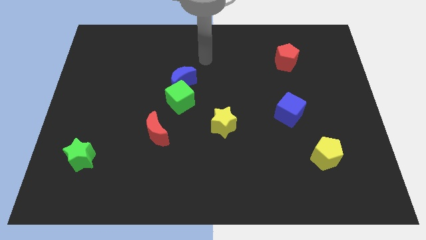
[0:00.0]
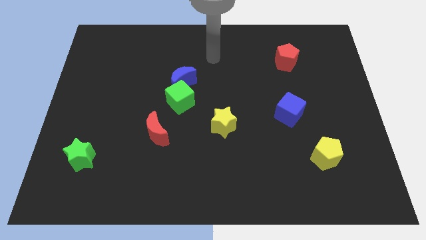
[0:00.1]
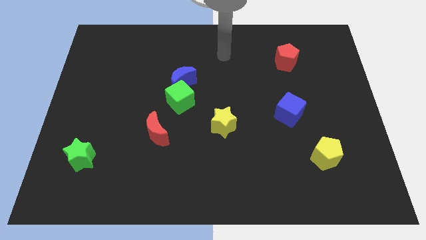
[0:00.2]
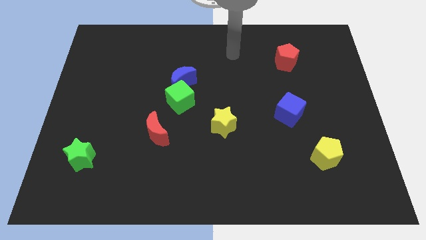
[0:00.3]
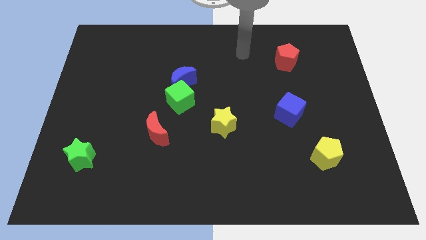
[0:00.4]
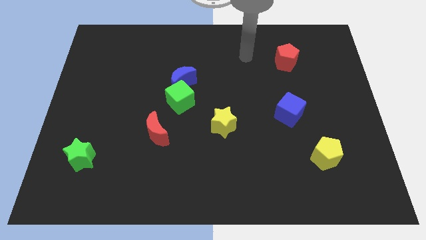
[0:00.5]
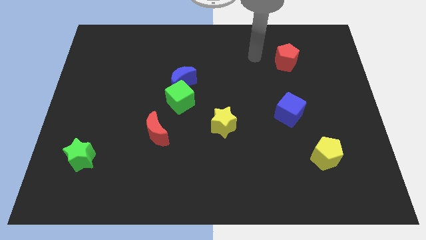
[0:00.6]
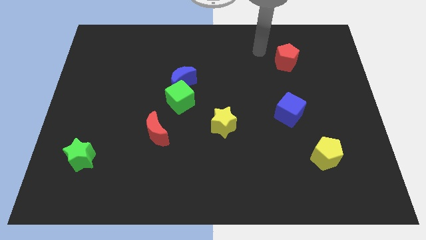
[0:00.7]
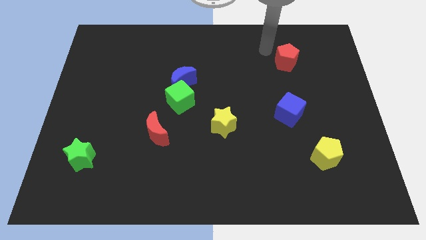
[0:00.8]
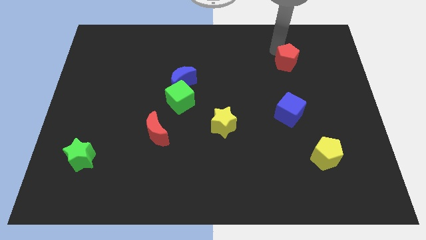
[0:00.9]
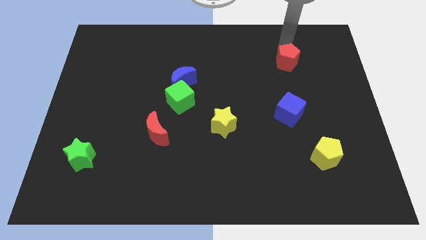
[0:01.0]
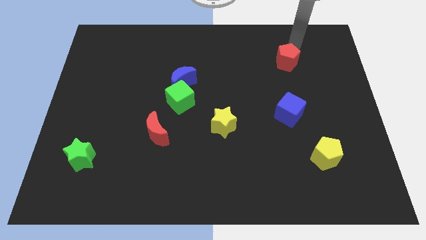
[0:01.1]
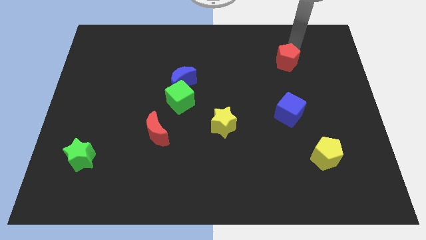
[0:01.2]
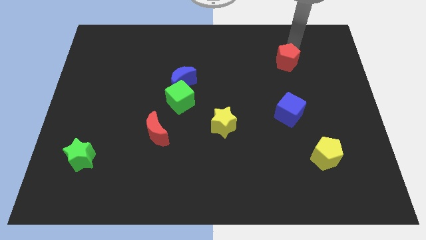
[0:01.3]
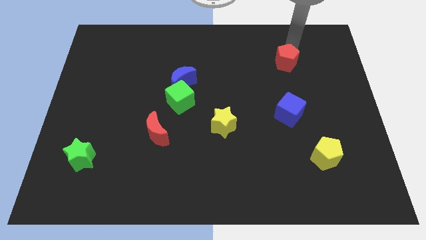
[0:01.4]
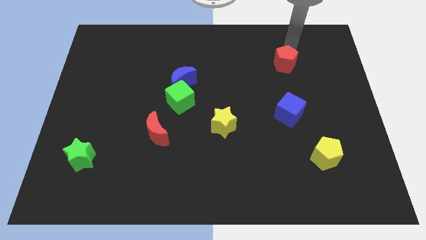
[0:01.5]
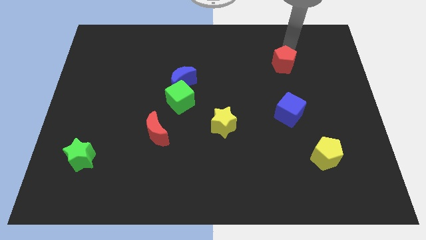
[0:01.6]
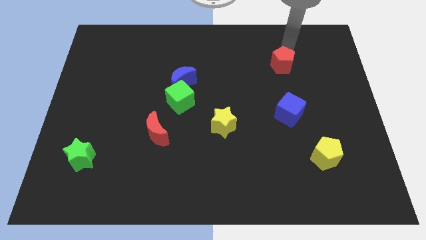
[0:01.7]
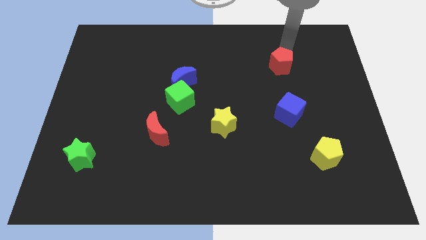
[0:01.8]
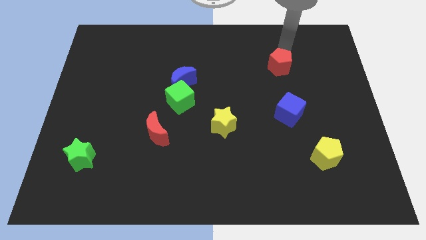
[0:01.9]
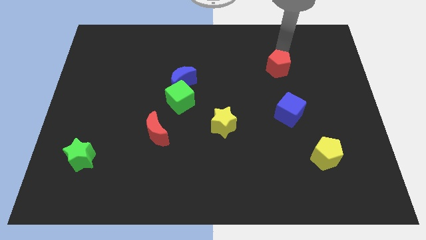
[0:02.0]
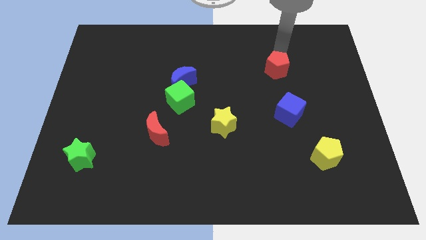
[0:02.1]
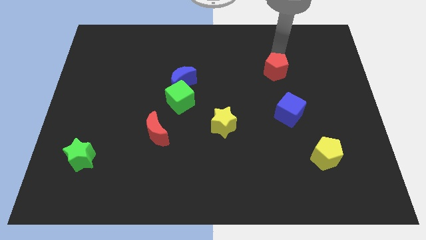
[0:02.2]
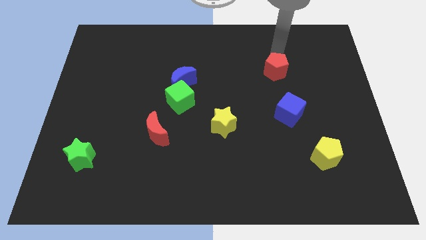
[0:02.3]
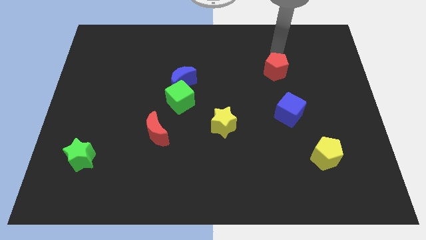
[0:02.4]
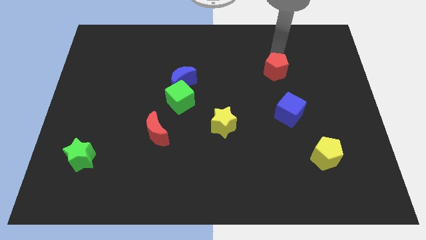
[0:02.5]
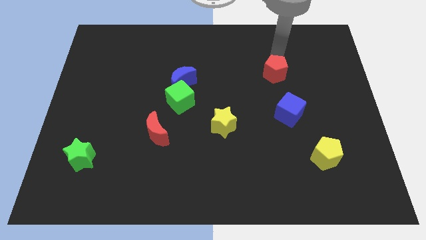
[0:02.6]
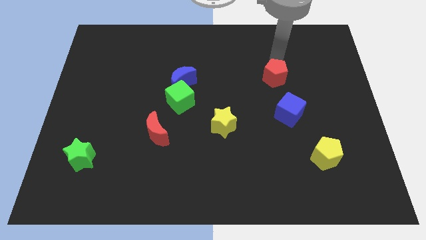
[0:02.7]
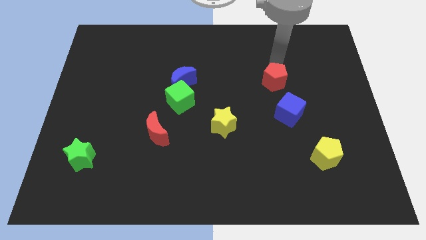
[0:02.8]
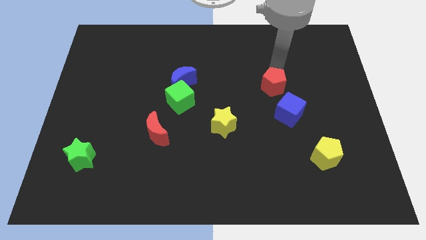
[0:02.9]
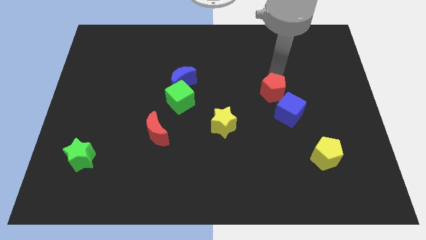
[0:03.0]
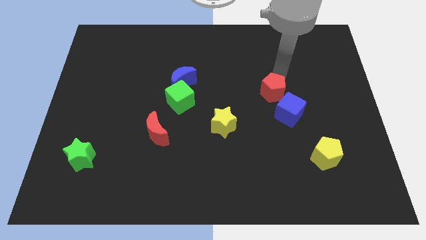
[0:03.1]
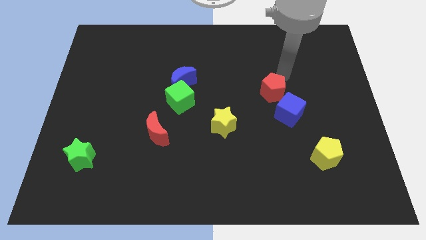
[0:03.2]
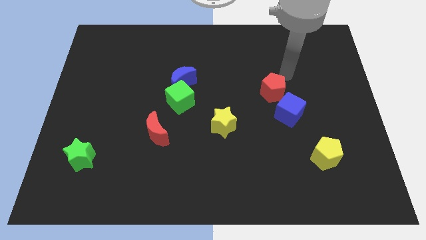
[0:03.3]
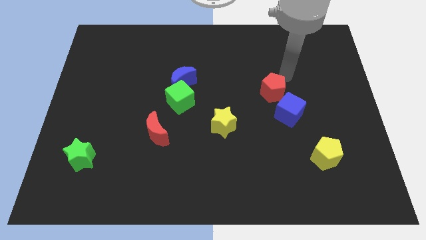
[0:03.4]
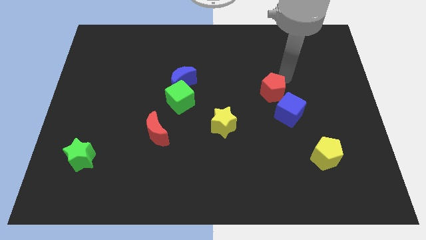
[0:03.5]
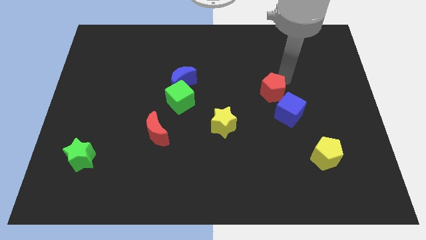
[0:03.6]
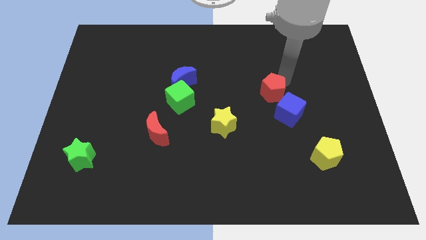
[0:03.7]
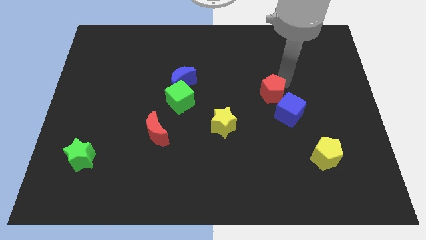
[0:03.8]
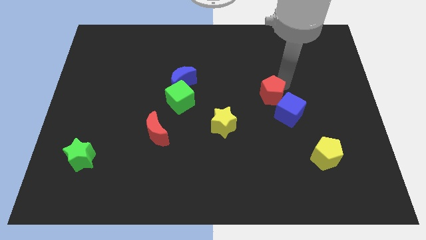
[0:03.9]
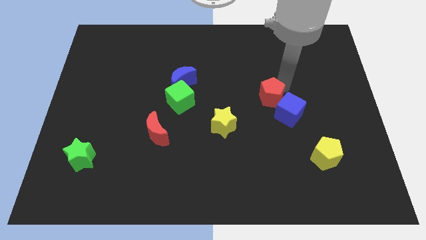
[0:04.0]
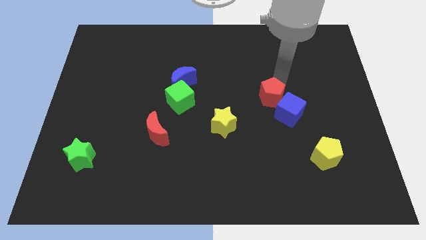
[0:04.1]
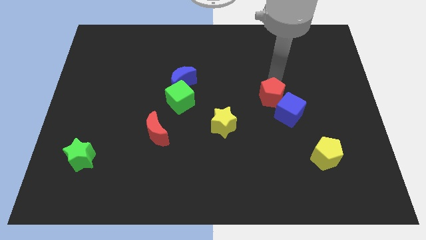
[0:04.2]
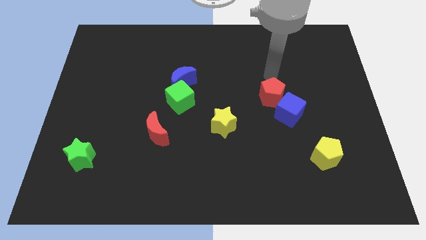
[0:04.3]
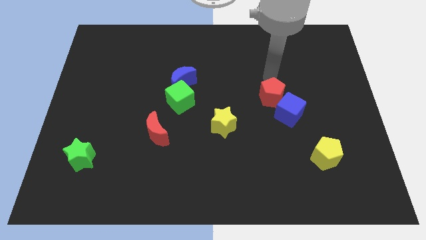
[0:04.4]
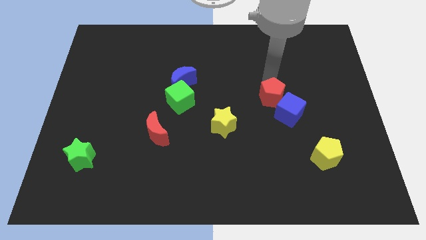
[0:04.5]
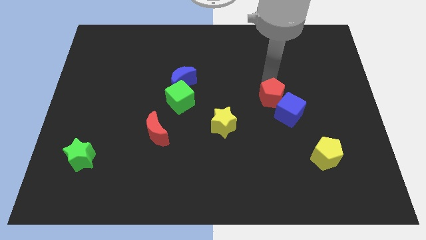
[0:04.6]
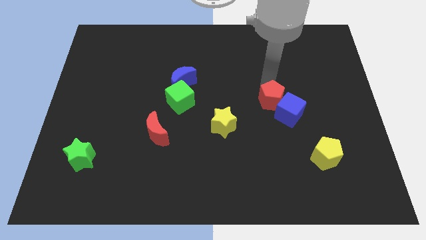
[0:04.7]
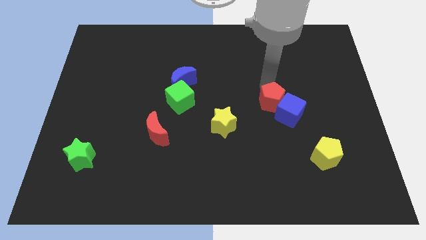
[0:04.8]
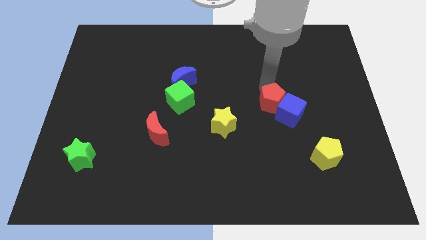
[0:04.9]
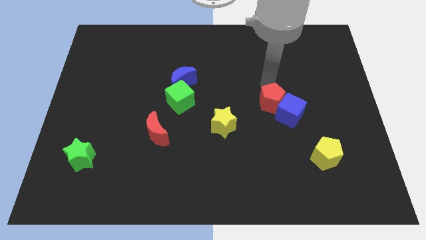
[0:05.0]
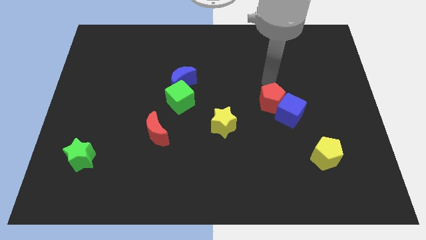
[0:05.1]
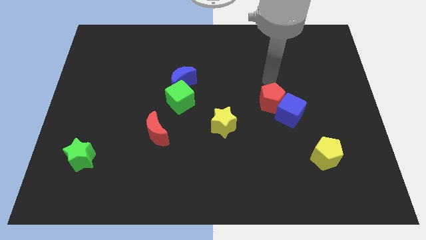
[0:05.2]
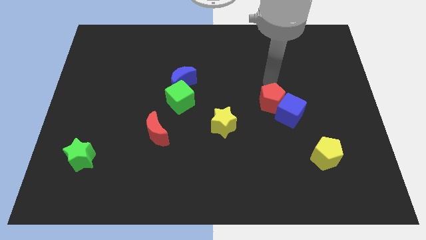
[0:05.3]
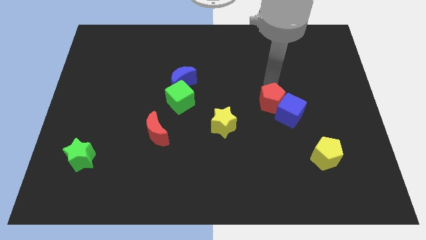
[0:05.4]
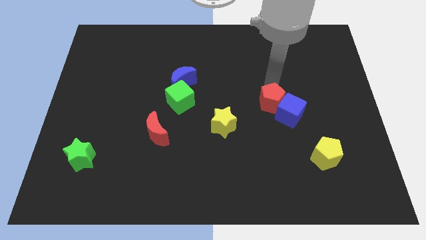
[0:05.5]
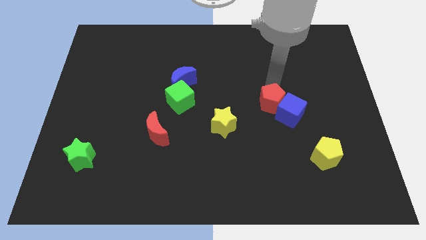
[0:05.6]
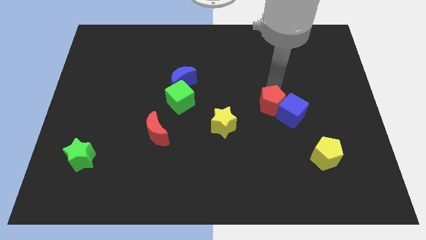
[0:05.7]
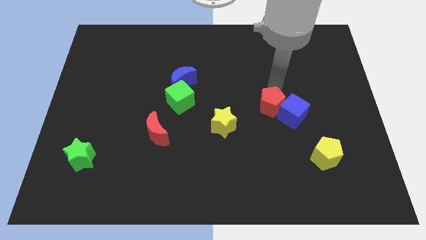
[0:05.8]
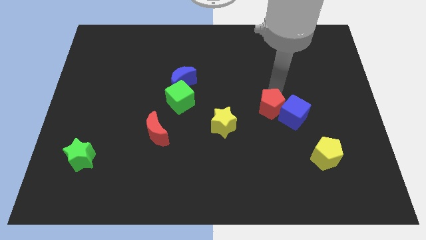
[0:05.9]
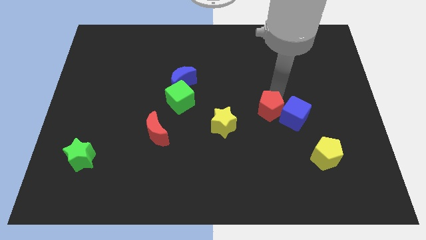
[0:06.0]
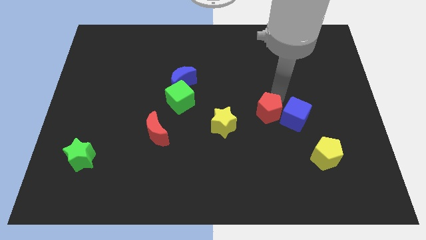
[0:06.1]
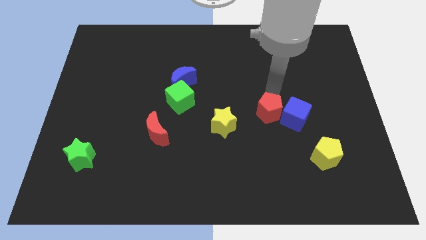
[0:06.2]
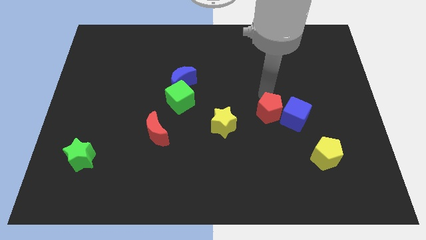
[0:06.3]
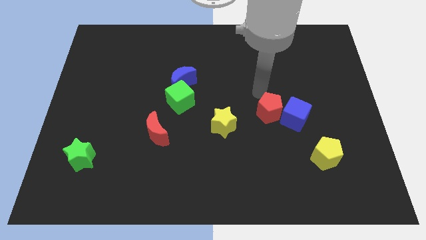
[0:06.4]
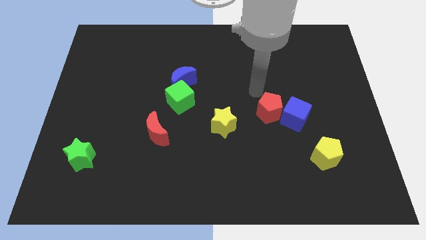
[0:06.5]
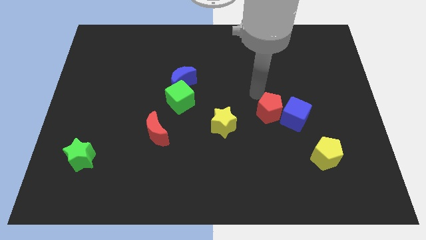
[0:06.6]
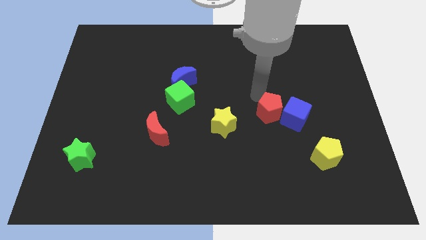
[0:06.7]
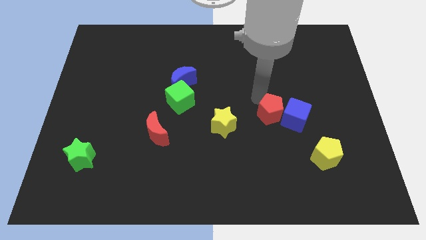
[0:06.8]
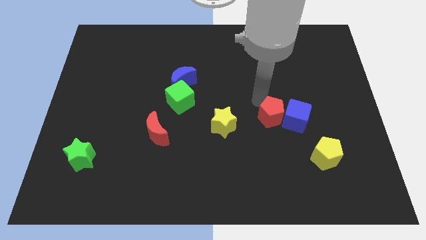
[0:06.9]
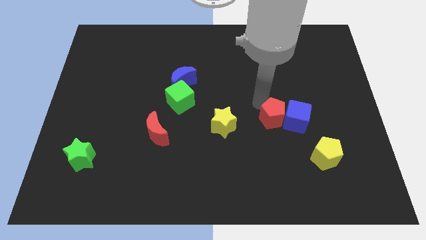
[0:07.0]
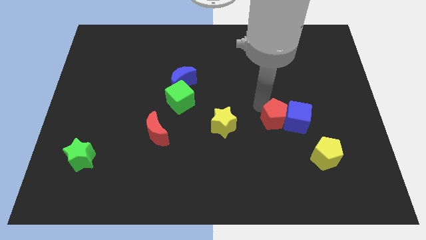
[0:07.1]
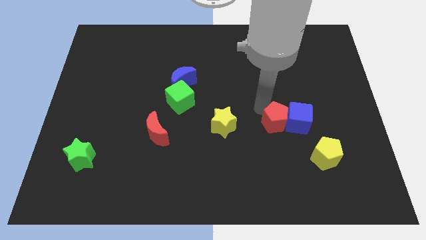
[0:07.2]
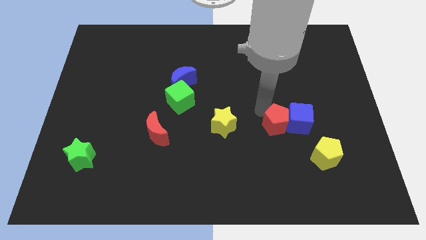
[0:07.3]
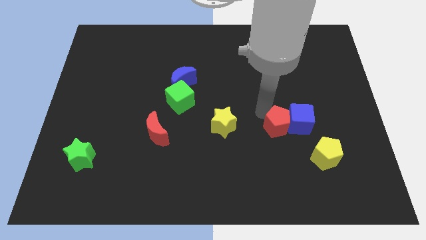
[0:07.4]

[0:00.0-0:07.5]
move the red pentagon downwards

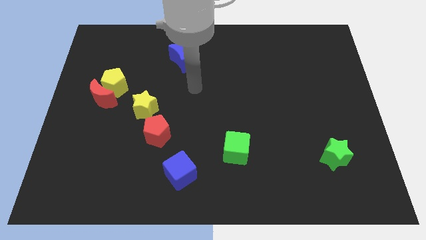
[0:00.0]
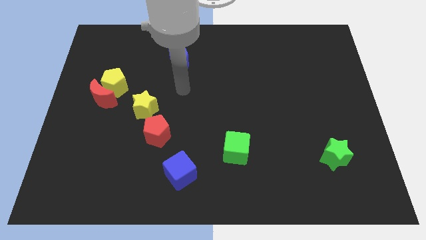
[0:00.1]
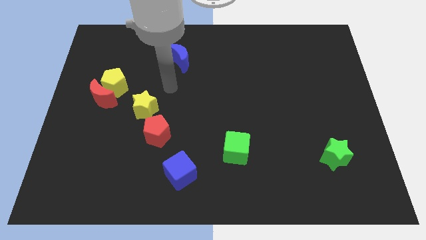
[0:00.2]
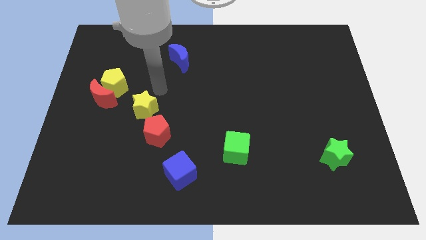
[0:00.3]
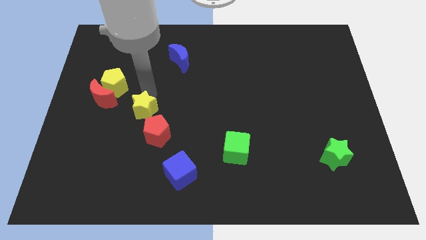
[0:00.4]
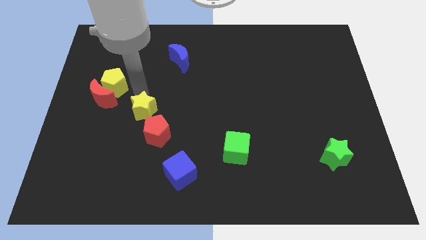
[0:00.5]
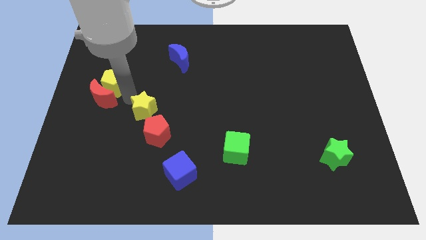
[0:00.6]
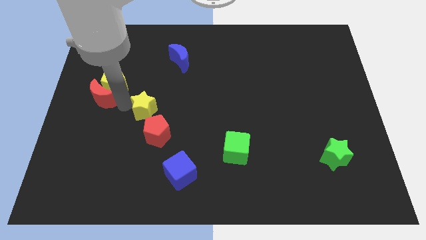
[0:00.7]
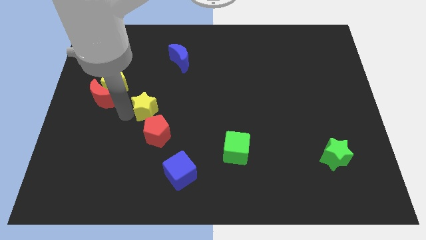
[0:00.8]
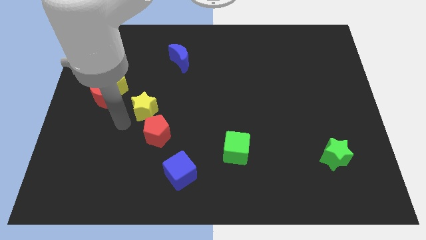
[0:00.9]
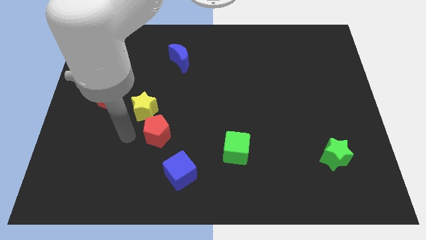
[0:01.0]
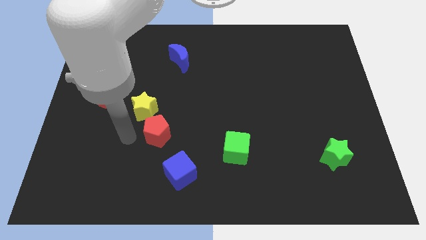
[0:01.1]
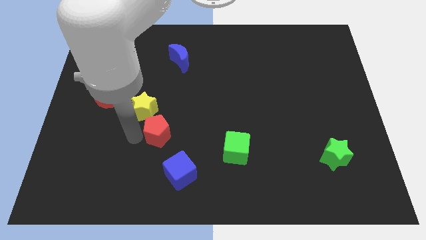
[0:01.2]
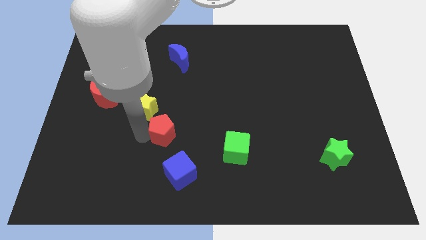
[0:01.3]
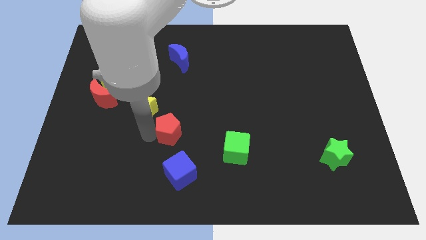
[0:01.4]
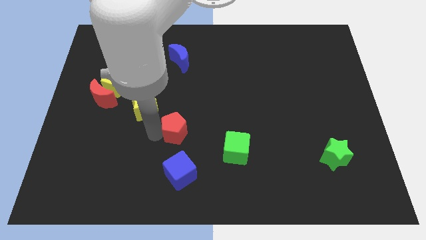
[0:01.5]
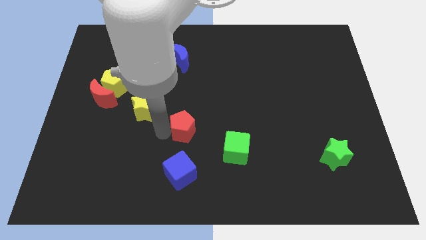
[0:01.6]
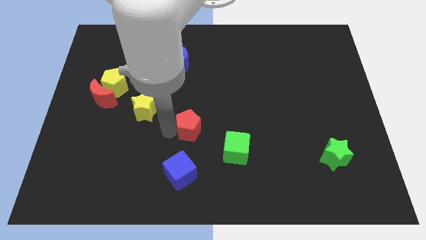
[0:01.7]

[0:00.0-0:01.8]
push the red pentagon right a bit
